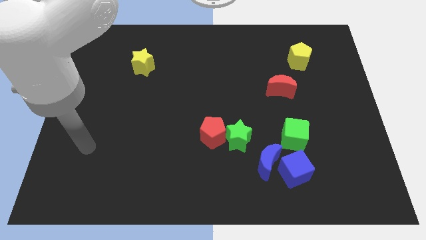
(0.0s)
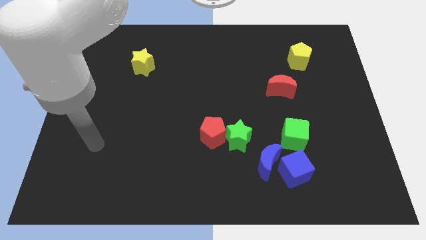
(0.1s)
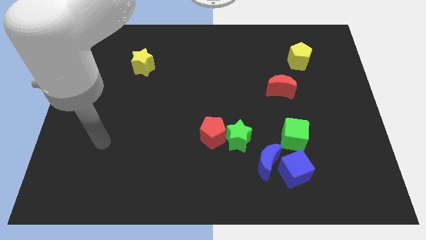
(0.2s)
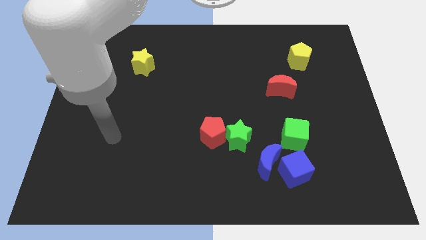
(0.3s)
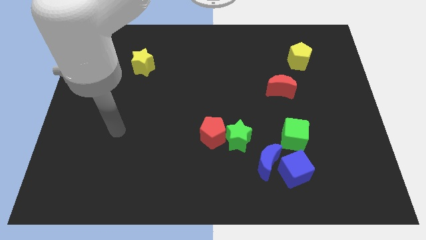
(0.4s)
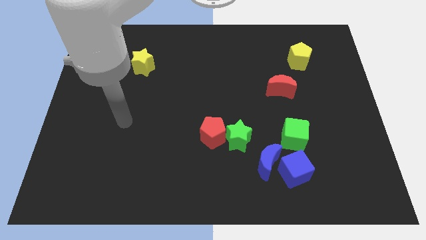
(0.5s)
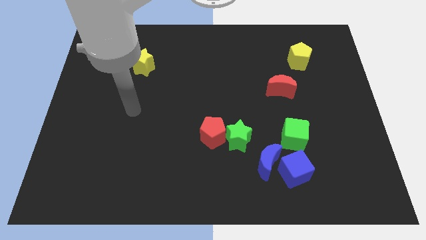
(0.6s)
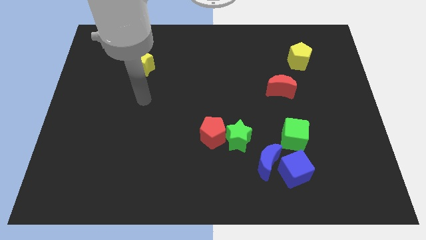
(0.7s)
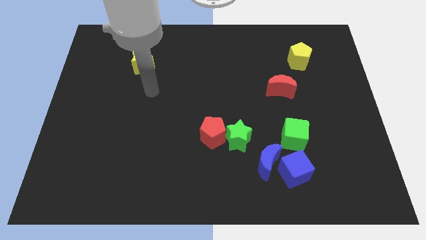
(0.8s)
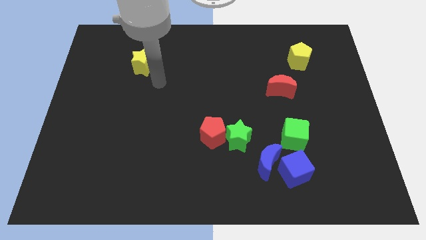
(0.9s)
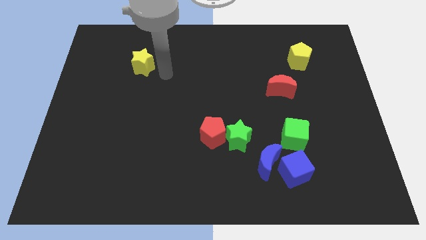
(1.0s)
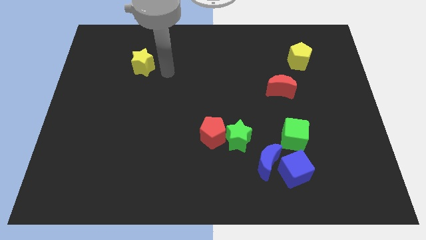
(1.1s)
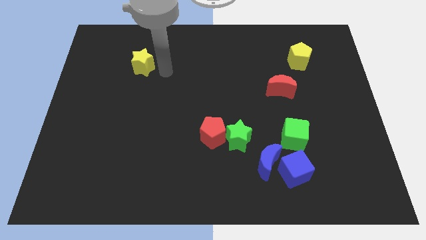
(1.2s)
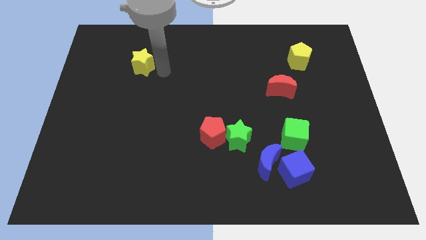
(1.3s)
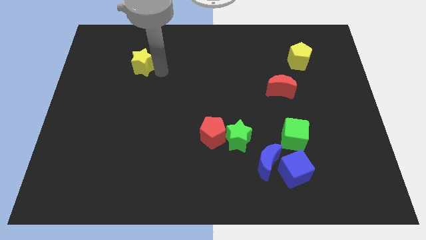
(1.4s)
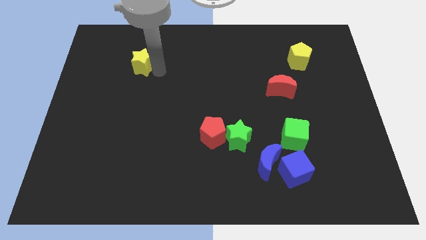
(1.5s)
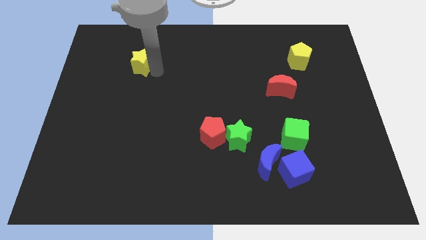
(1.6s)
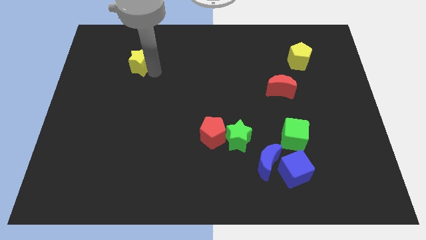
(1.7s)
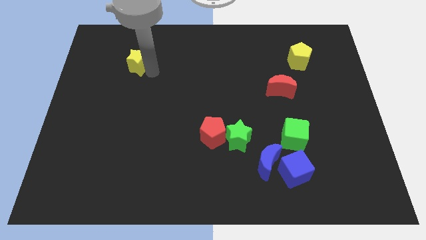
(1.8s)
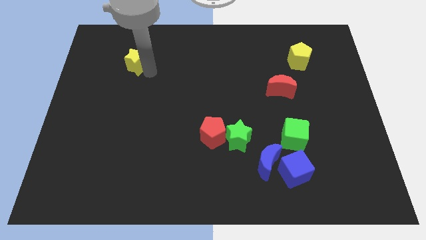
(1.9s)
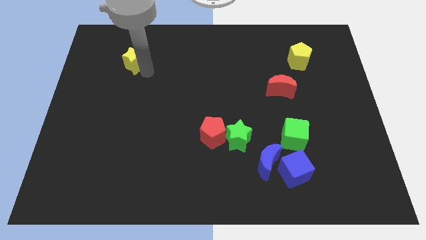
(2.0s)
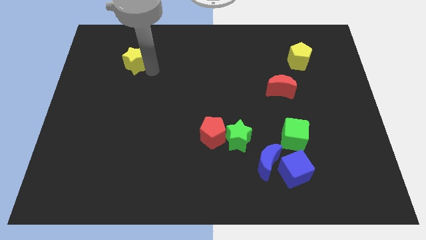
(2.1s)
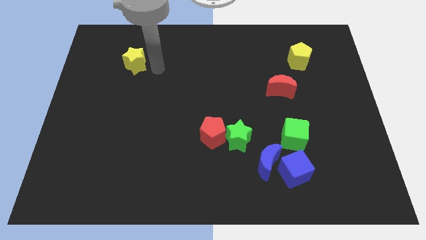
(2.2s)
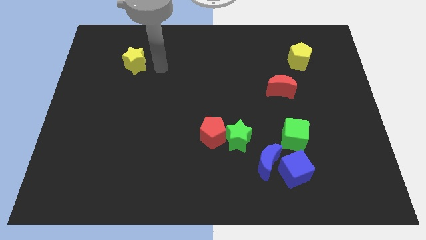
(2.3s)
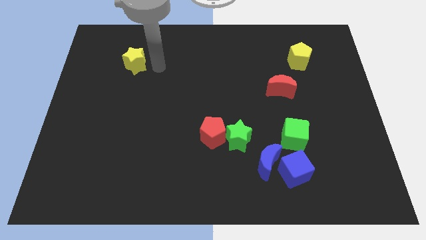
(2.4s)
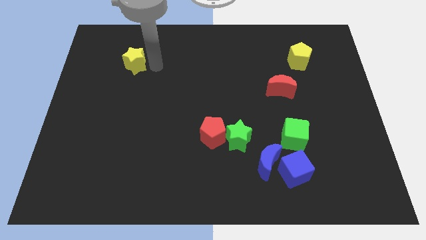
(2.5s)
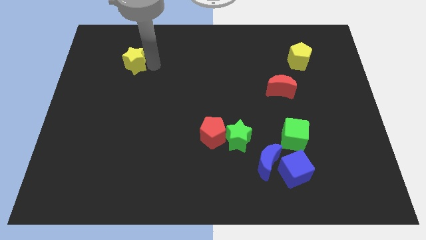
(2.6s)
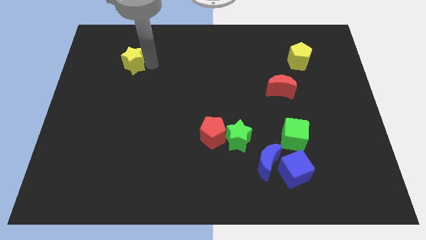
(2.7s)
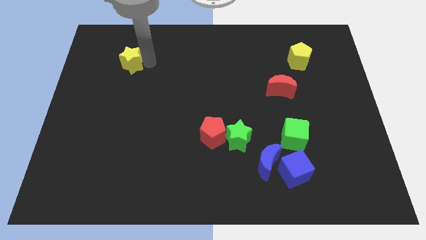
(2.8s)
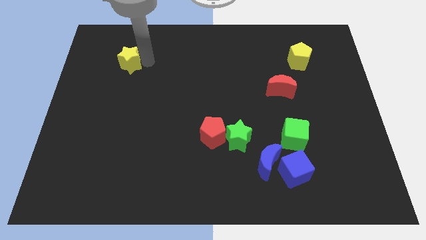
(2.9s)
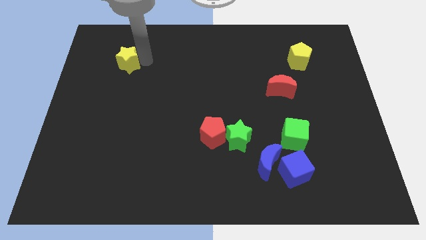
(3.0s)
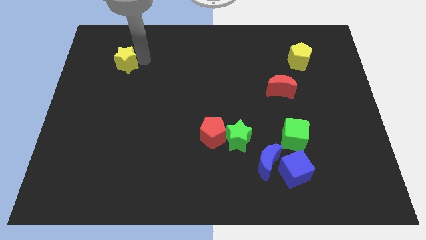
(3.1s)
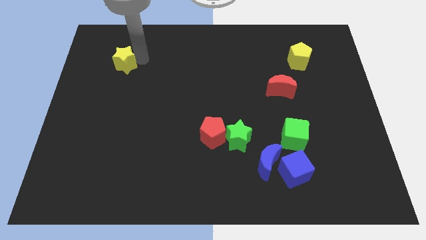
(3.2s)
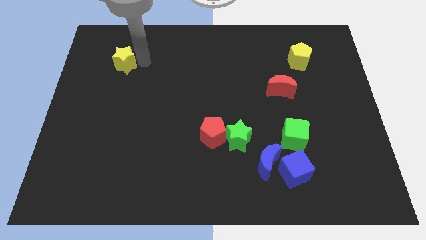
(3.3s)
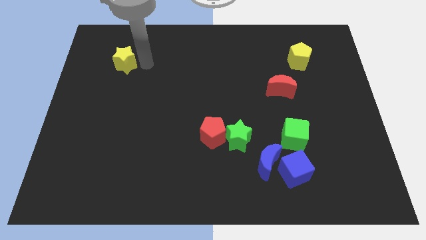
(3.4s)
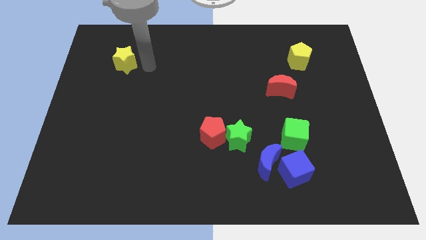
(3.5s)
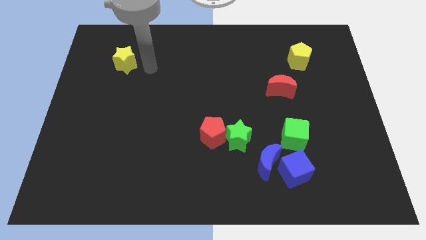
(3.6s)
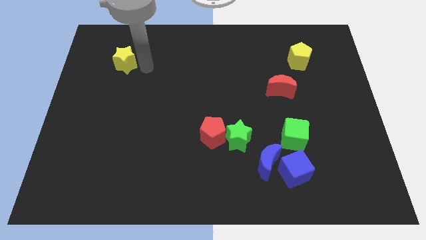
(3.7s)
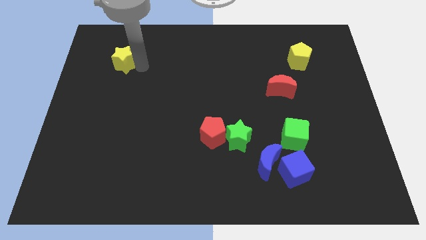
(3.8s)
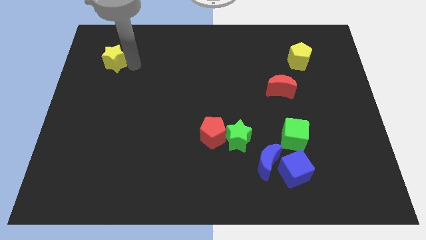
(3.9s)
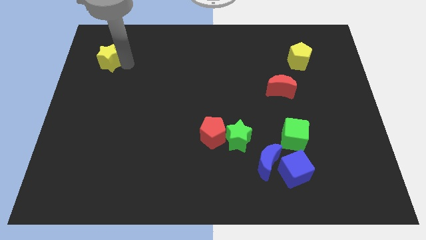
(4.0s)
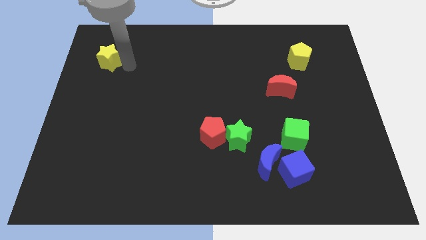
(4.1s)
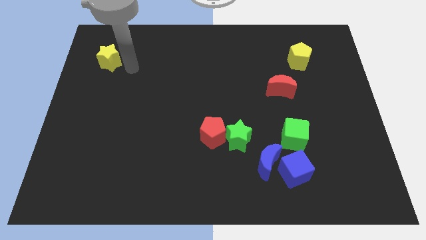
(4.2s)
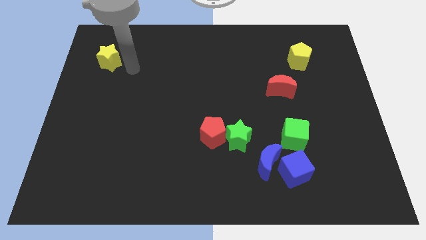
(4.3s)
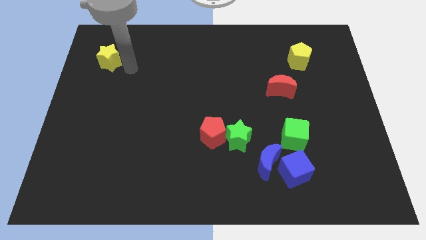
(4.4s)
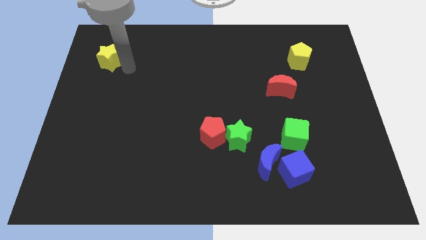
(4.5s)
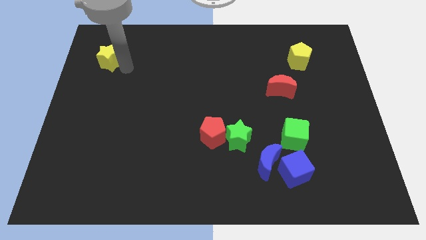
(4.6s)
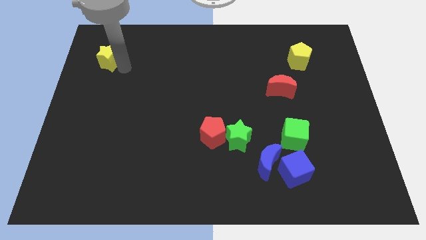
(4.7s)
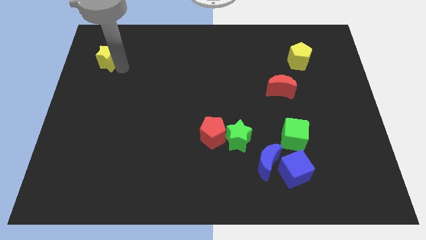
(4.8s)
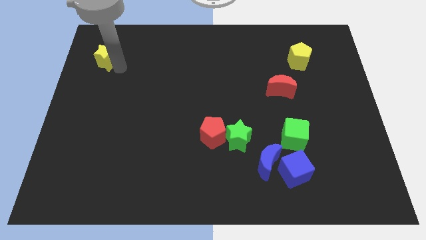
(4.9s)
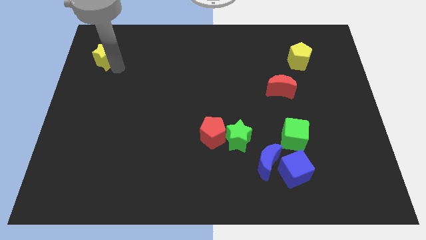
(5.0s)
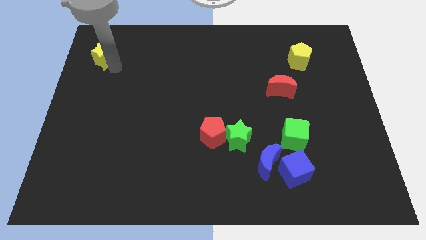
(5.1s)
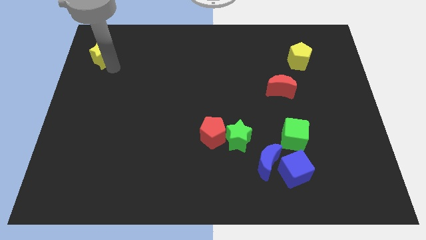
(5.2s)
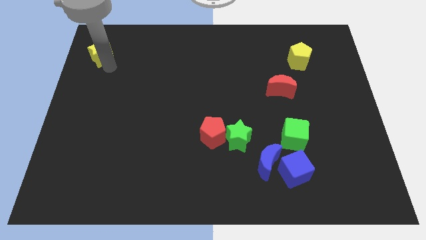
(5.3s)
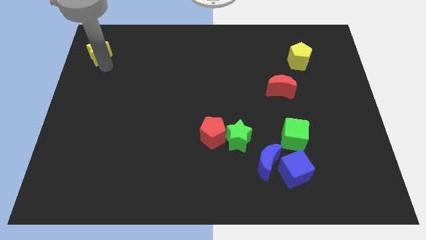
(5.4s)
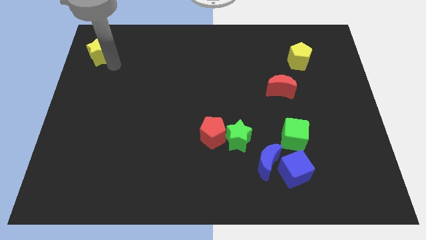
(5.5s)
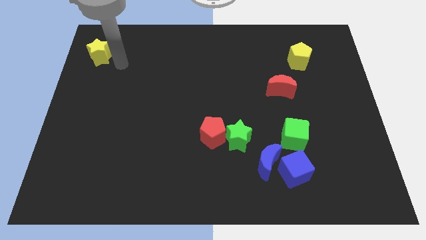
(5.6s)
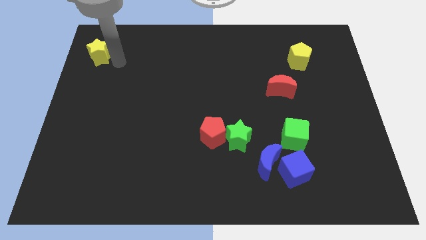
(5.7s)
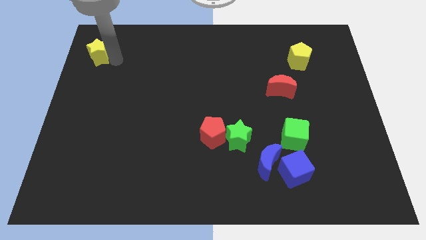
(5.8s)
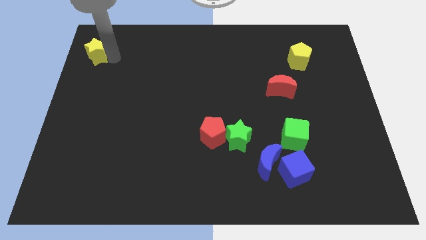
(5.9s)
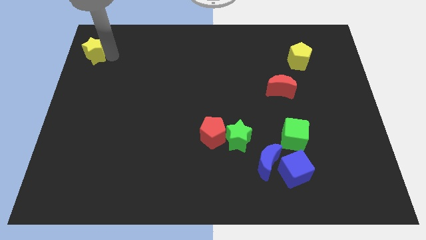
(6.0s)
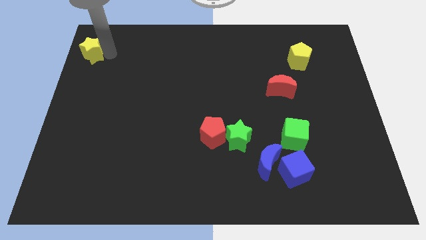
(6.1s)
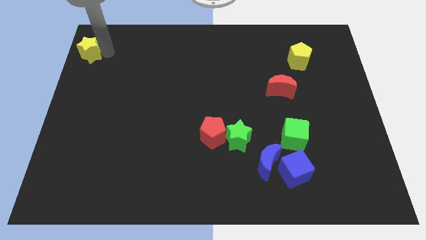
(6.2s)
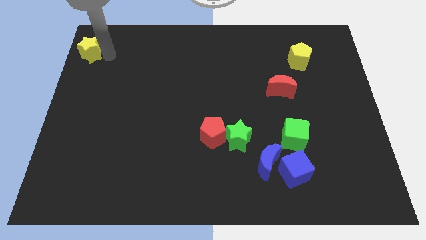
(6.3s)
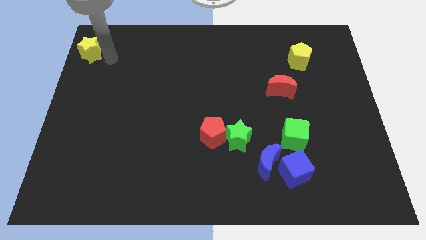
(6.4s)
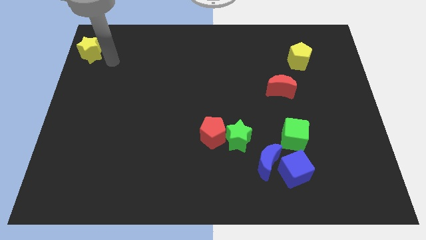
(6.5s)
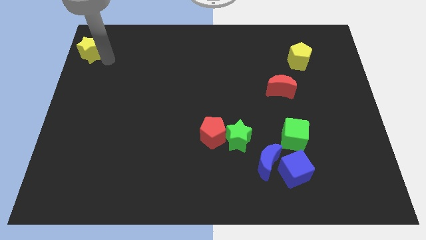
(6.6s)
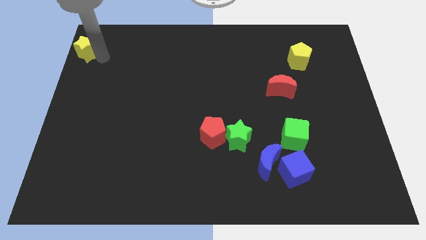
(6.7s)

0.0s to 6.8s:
move the yellow star to the top left of the board
